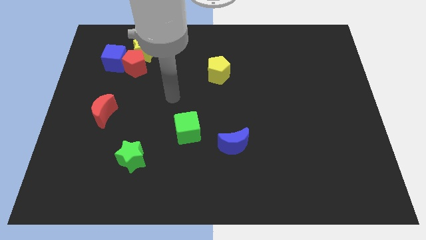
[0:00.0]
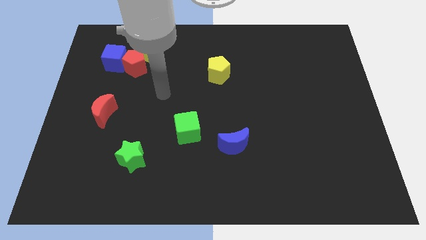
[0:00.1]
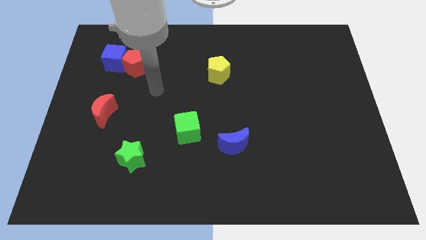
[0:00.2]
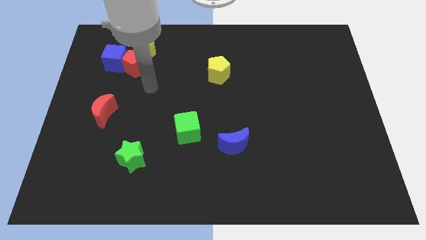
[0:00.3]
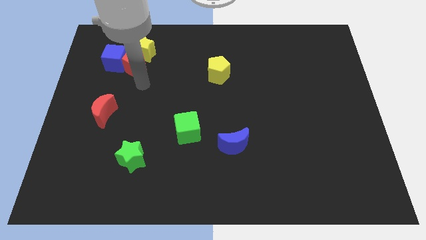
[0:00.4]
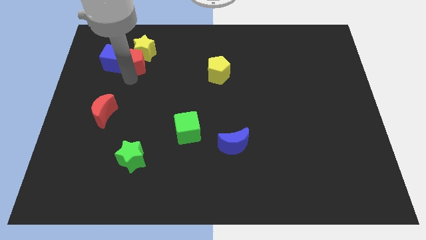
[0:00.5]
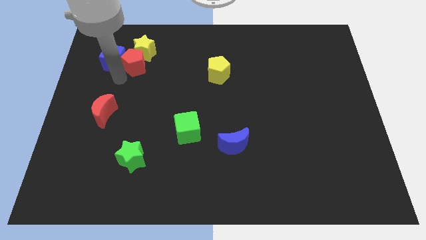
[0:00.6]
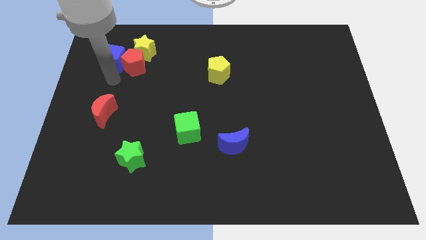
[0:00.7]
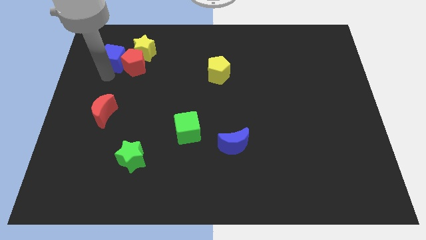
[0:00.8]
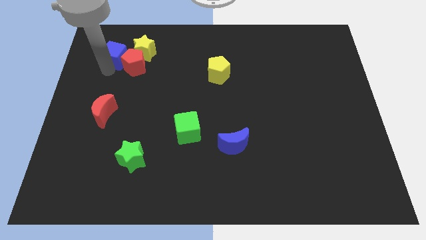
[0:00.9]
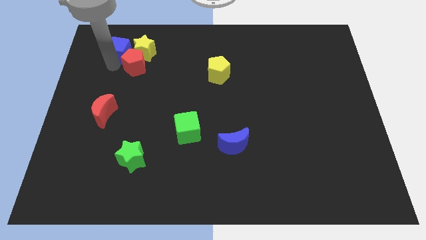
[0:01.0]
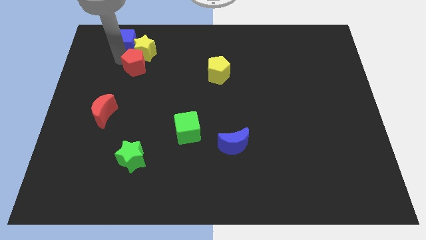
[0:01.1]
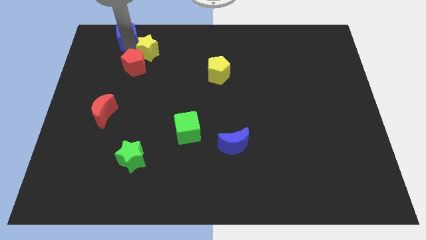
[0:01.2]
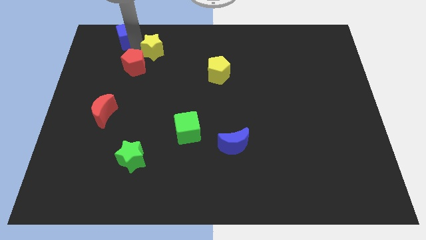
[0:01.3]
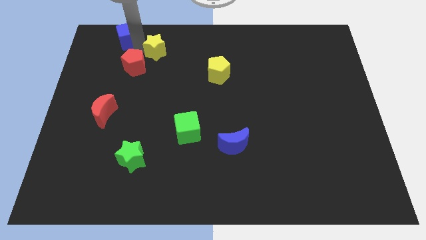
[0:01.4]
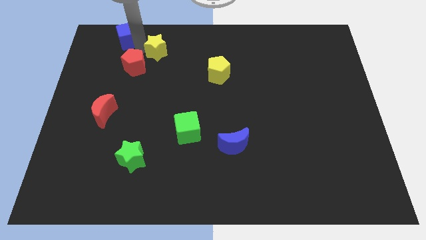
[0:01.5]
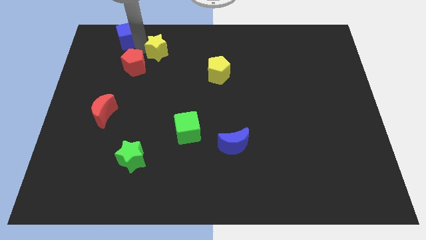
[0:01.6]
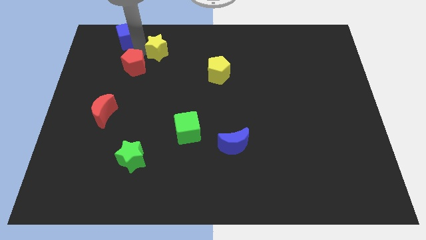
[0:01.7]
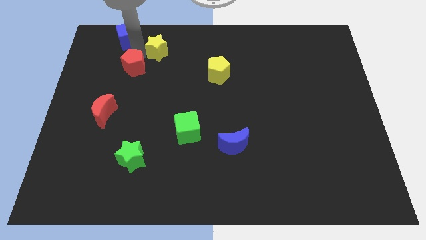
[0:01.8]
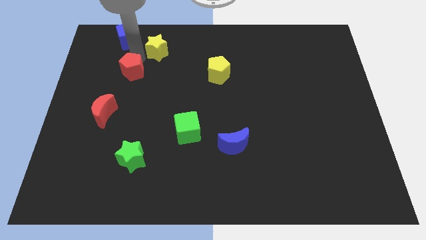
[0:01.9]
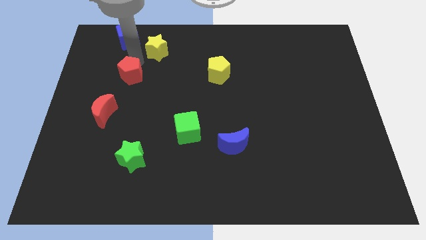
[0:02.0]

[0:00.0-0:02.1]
pull the red pentagon apart from the yellow star and blue cube

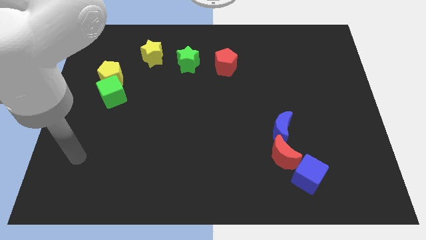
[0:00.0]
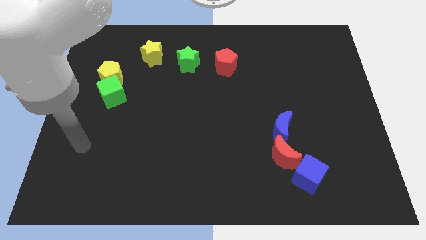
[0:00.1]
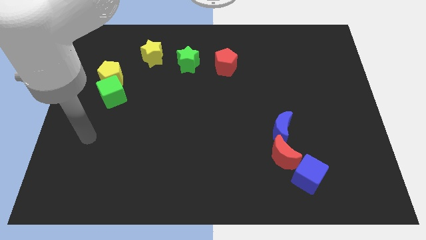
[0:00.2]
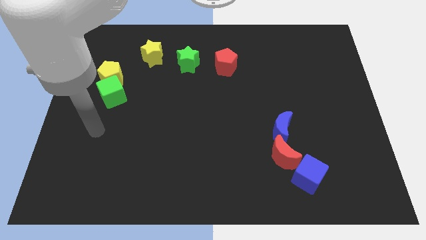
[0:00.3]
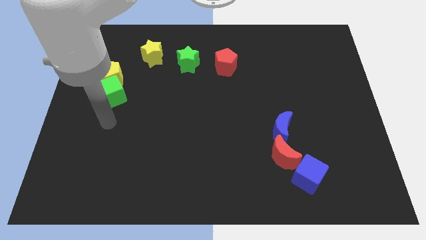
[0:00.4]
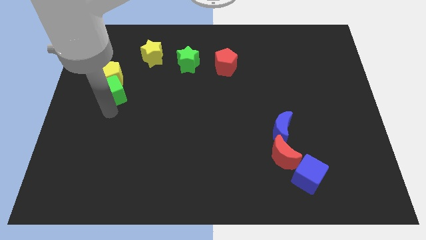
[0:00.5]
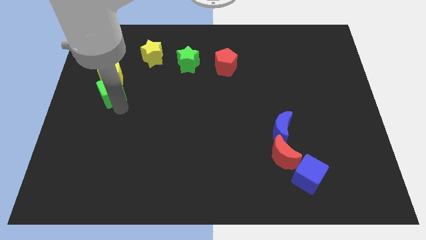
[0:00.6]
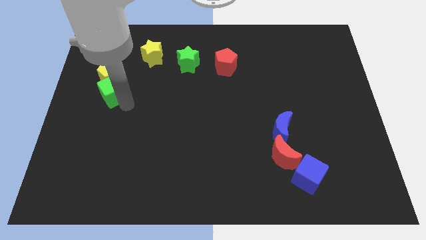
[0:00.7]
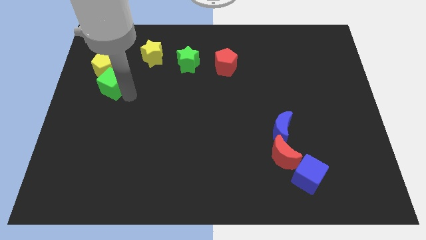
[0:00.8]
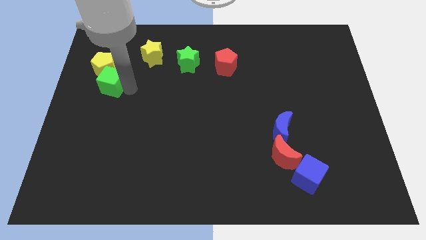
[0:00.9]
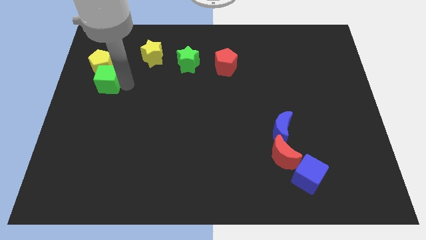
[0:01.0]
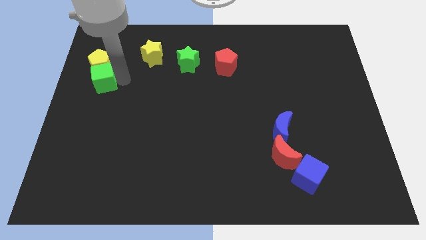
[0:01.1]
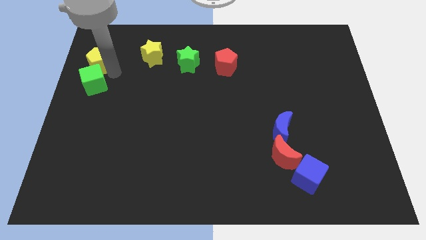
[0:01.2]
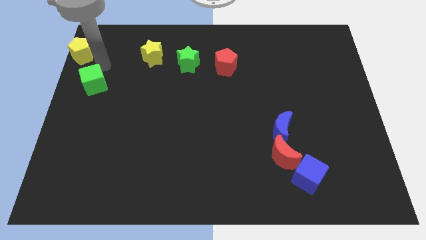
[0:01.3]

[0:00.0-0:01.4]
separate the green cube from the yellow pentagon

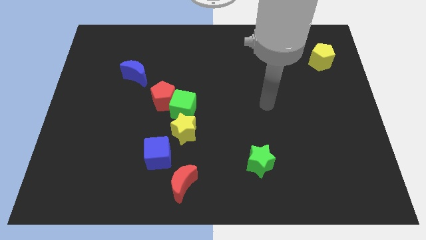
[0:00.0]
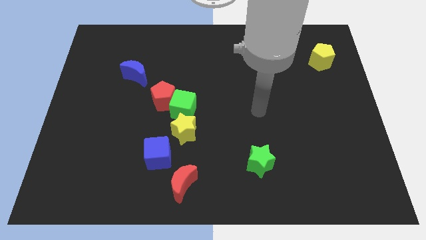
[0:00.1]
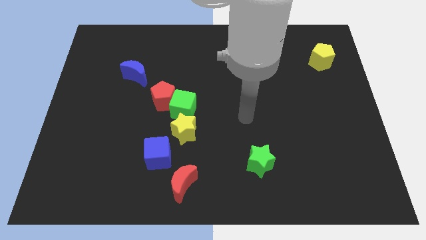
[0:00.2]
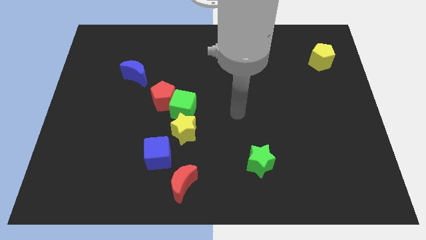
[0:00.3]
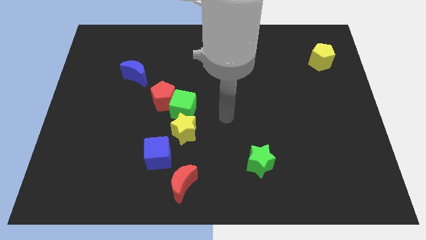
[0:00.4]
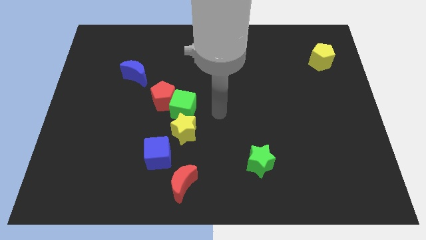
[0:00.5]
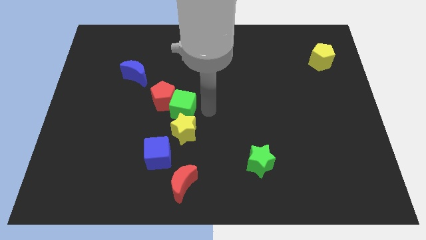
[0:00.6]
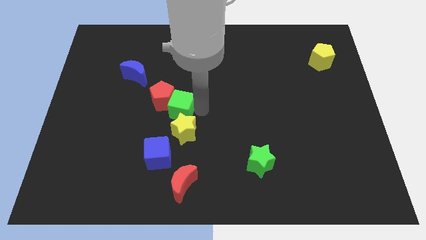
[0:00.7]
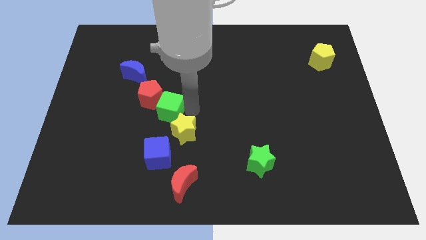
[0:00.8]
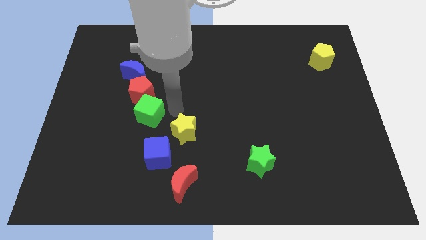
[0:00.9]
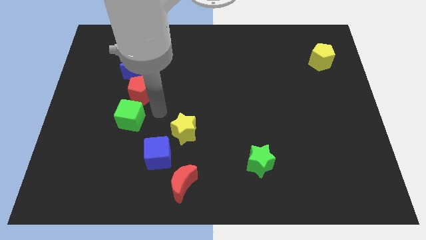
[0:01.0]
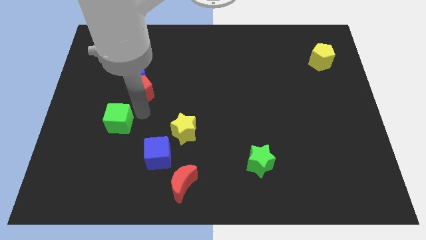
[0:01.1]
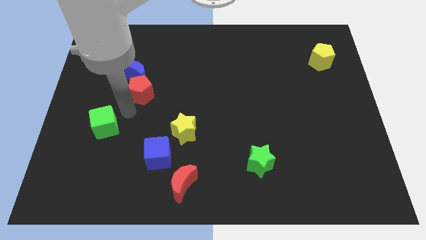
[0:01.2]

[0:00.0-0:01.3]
separate the red pentagon from the green cube

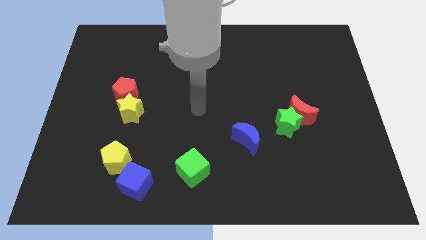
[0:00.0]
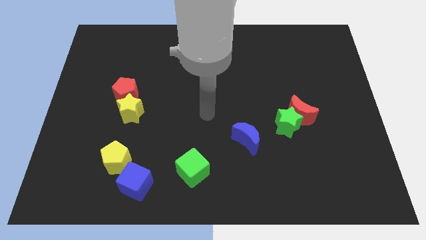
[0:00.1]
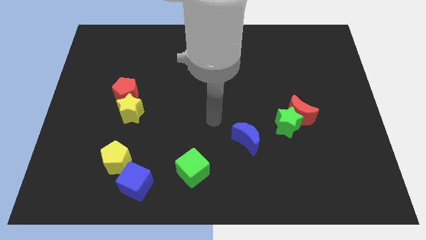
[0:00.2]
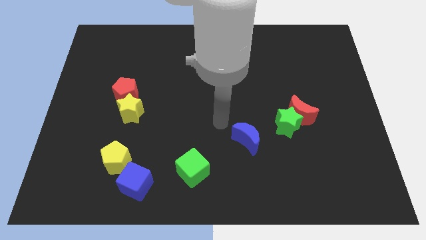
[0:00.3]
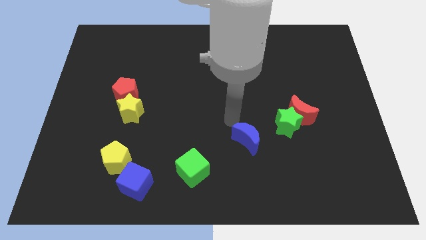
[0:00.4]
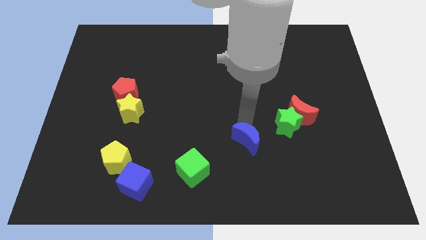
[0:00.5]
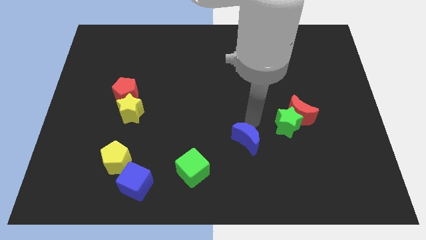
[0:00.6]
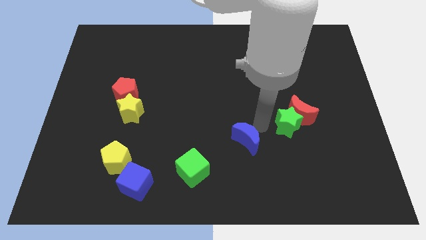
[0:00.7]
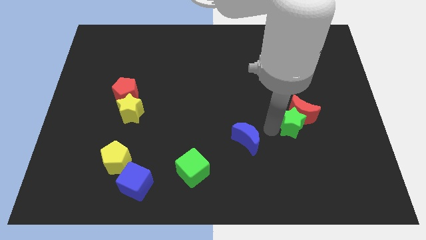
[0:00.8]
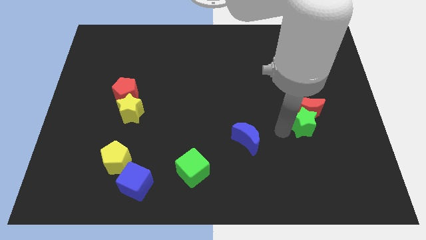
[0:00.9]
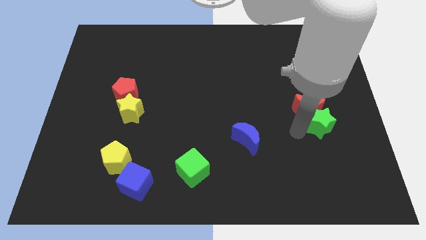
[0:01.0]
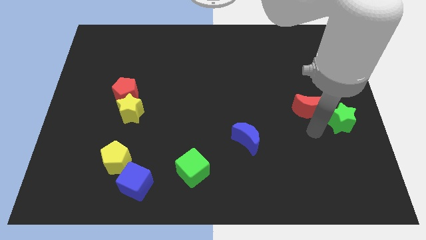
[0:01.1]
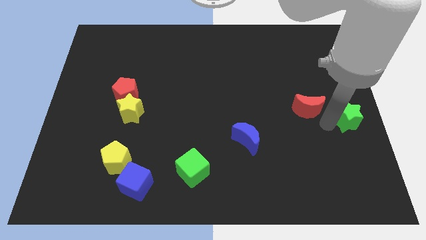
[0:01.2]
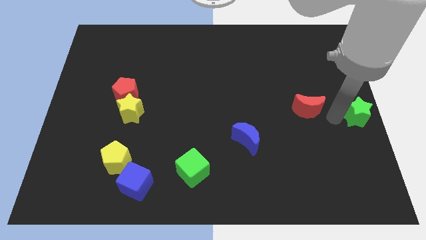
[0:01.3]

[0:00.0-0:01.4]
move the red moon away from the green star

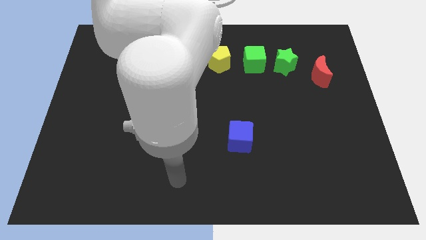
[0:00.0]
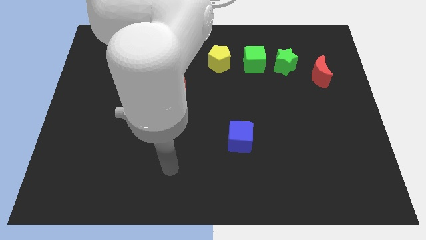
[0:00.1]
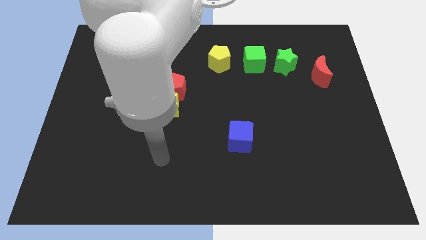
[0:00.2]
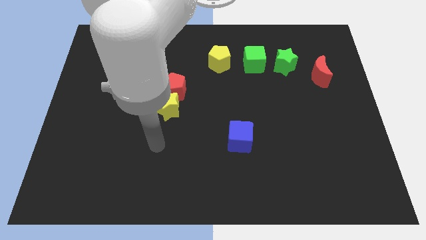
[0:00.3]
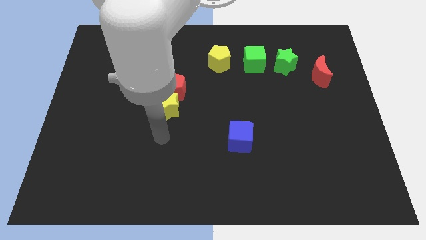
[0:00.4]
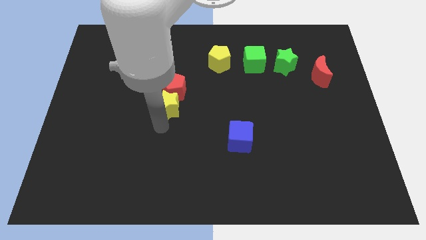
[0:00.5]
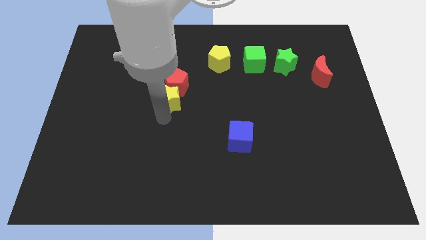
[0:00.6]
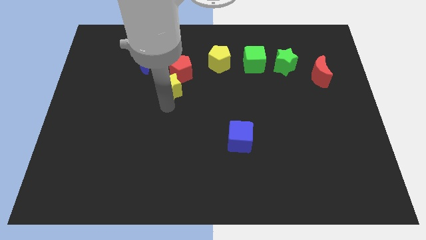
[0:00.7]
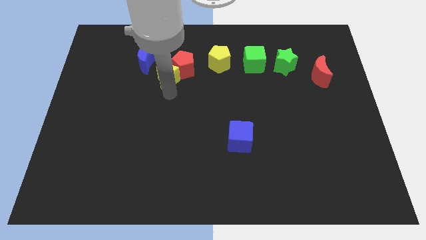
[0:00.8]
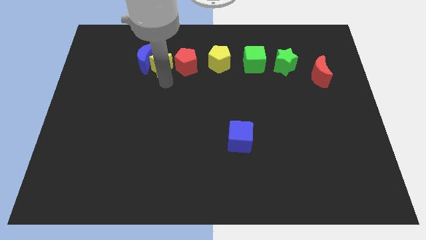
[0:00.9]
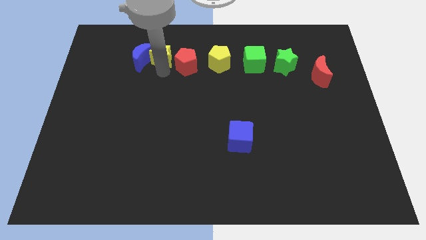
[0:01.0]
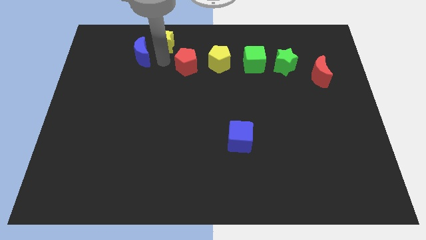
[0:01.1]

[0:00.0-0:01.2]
move the red pentagon away from the yellow star

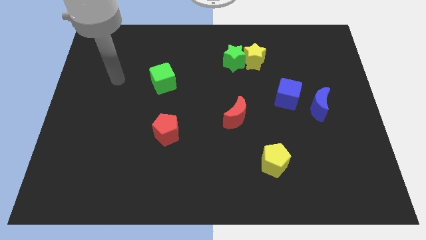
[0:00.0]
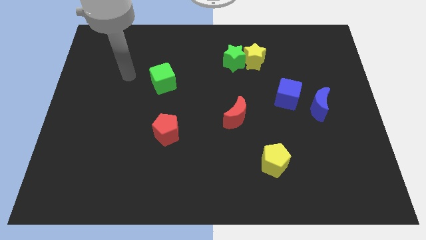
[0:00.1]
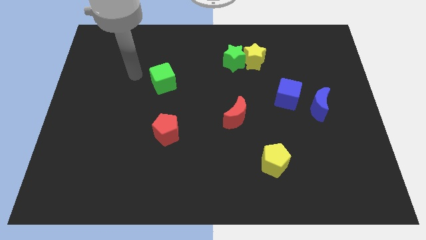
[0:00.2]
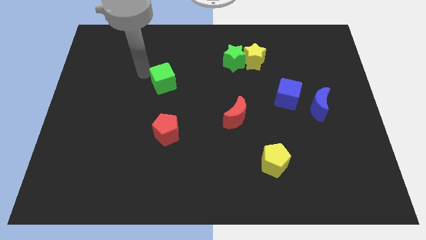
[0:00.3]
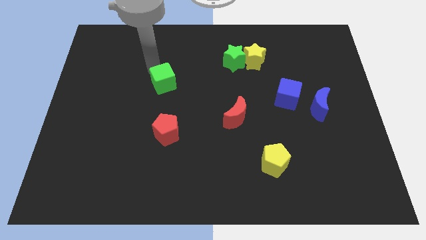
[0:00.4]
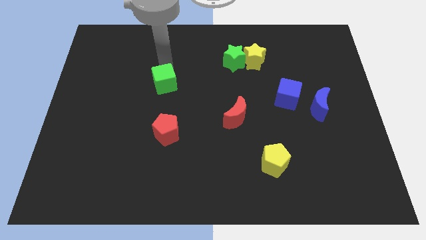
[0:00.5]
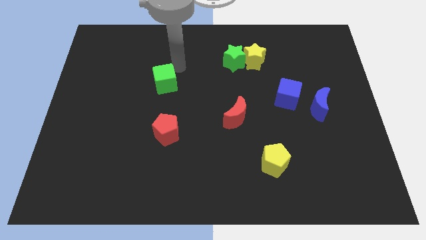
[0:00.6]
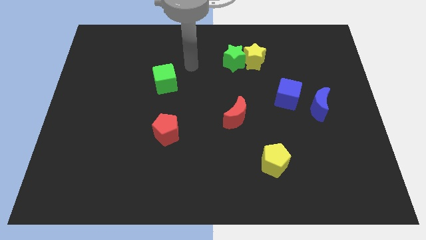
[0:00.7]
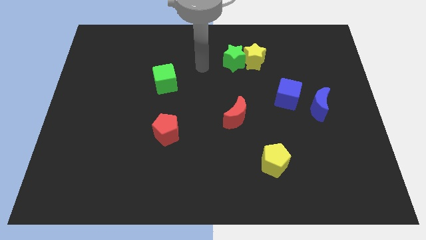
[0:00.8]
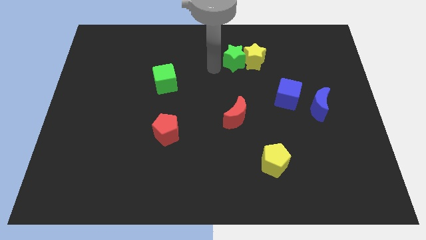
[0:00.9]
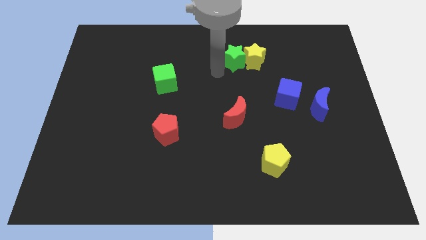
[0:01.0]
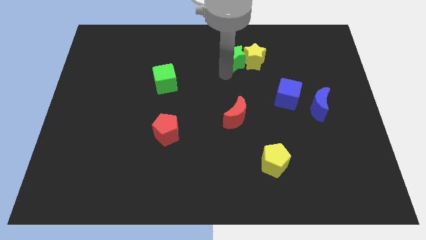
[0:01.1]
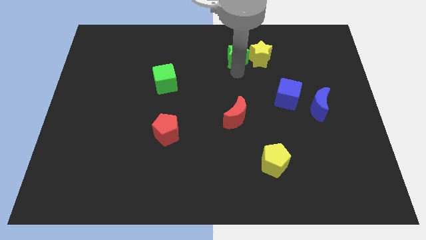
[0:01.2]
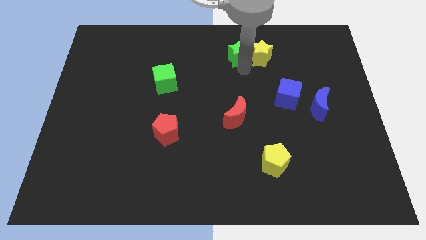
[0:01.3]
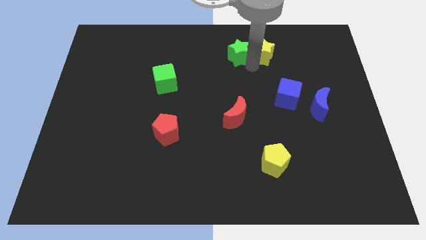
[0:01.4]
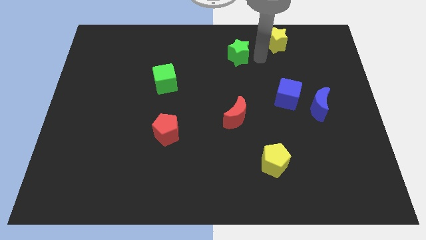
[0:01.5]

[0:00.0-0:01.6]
move the green star away from the yellow star

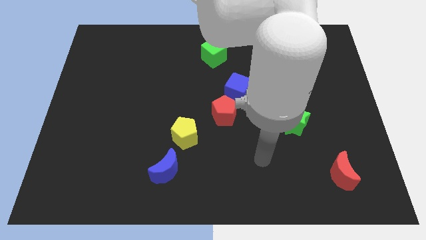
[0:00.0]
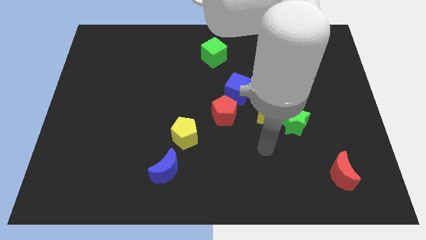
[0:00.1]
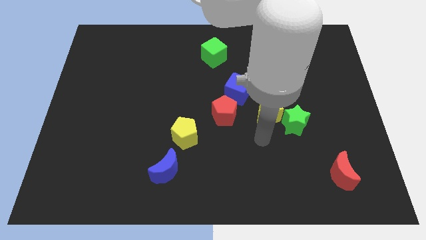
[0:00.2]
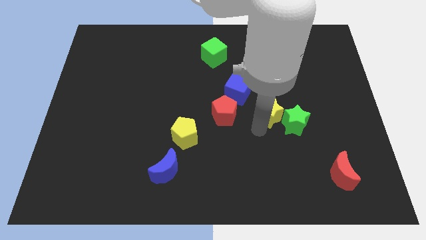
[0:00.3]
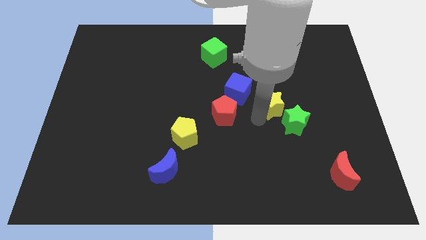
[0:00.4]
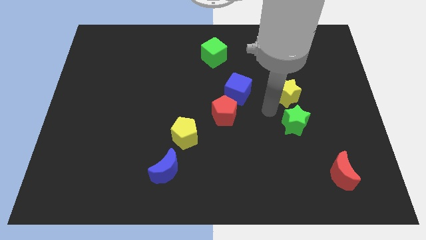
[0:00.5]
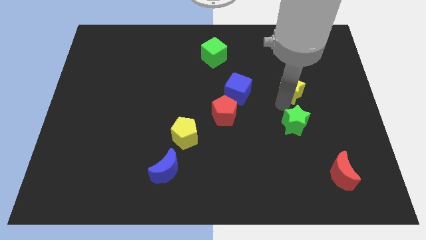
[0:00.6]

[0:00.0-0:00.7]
pull the green star apart from the yellow star
